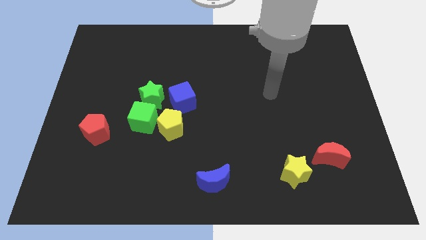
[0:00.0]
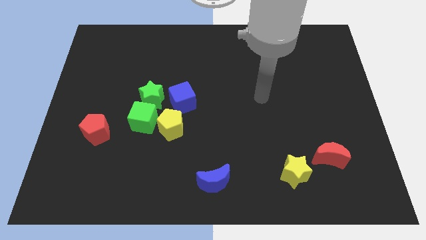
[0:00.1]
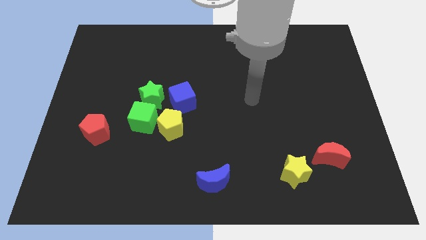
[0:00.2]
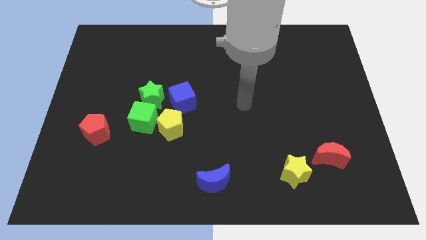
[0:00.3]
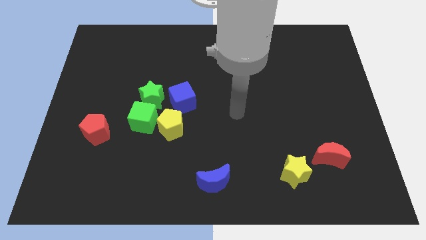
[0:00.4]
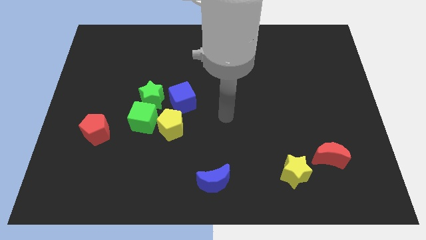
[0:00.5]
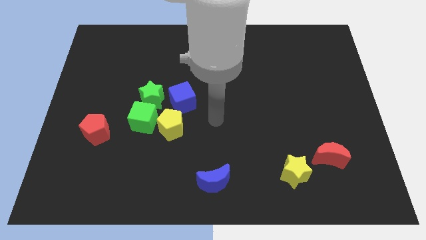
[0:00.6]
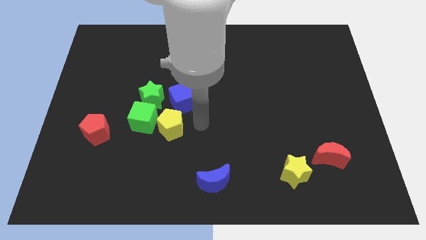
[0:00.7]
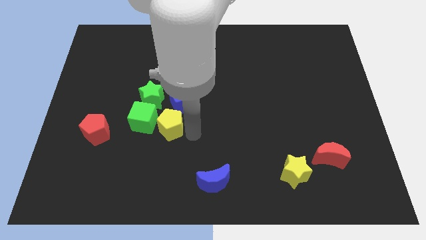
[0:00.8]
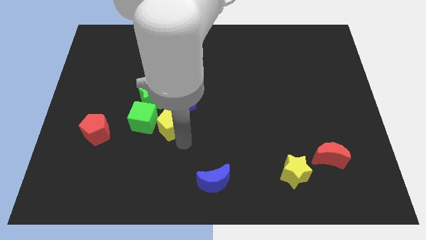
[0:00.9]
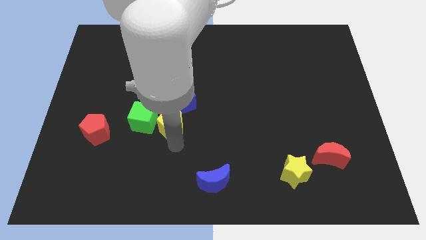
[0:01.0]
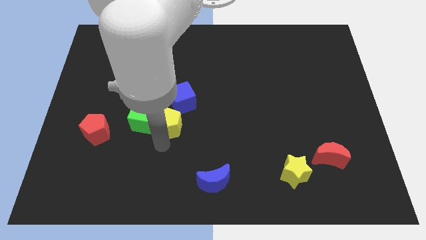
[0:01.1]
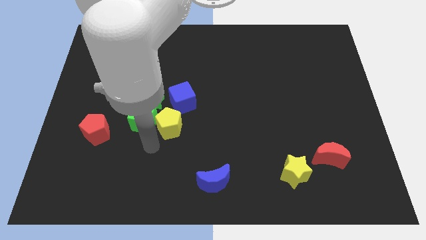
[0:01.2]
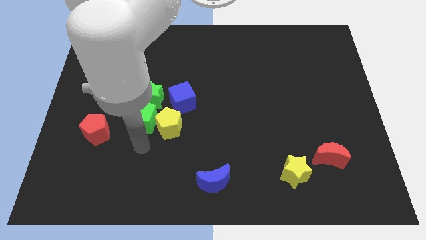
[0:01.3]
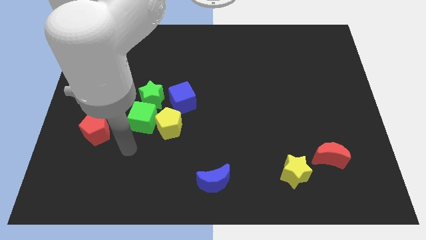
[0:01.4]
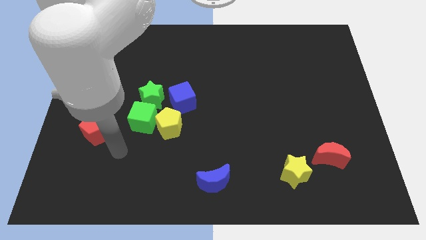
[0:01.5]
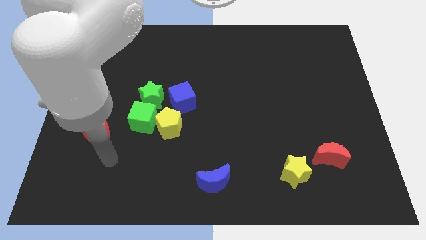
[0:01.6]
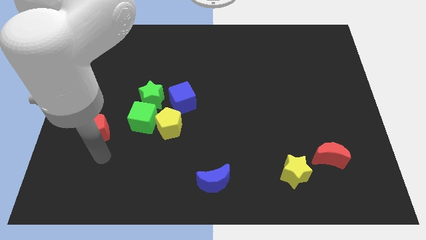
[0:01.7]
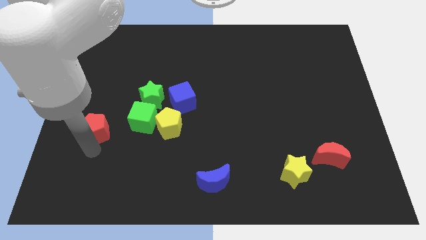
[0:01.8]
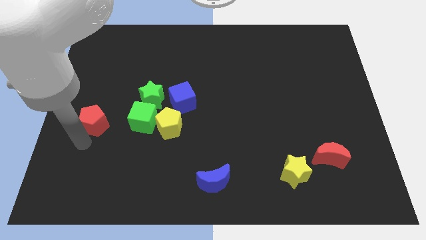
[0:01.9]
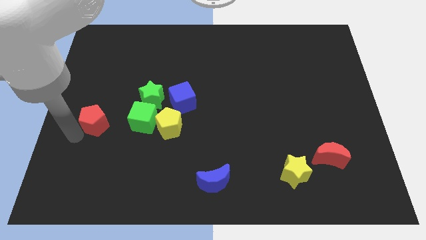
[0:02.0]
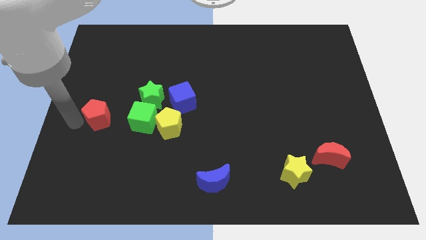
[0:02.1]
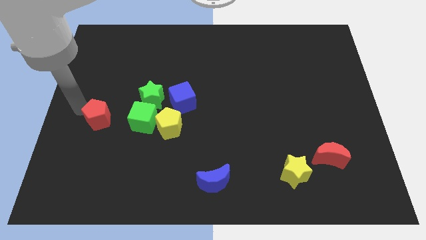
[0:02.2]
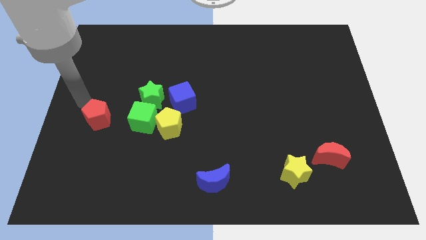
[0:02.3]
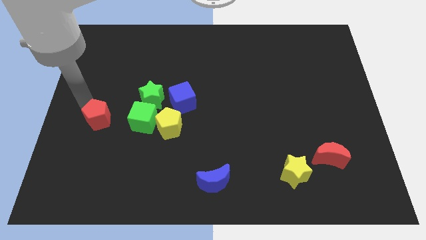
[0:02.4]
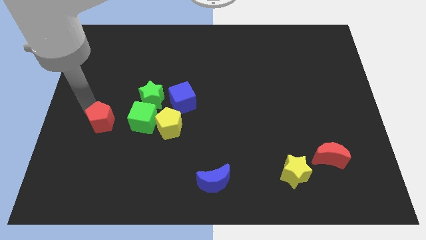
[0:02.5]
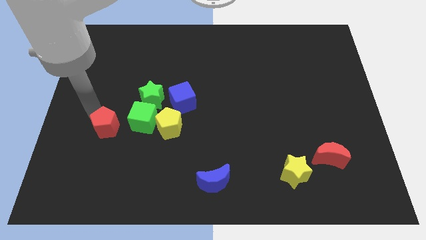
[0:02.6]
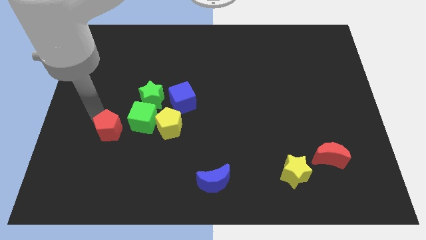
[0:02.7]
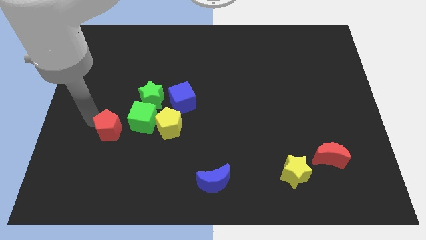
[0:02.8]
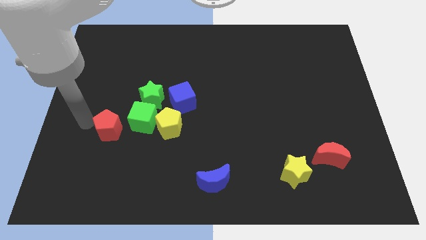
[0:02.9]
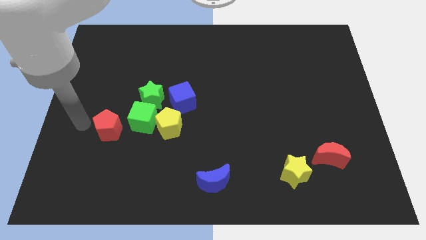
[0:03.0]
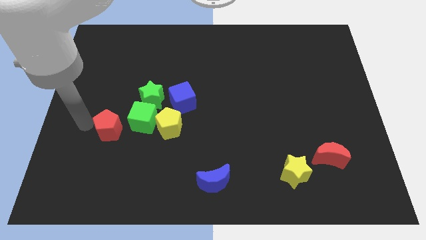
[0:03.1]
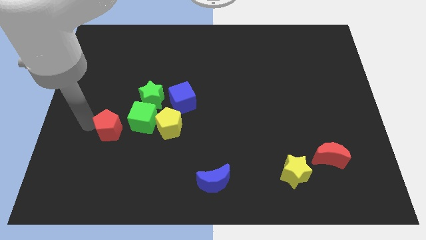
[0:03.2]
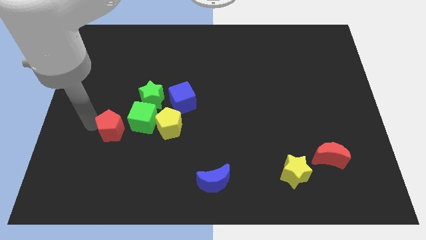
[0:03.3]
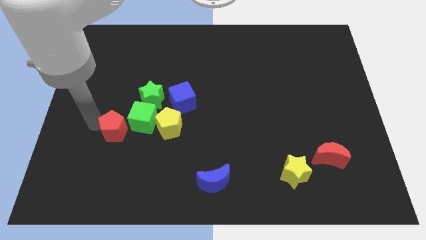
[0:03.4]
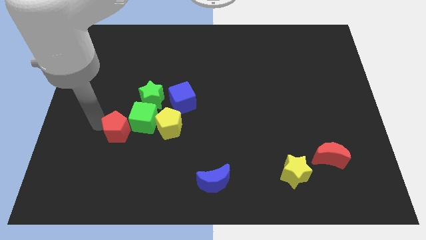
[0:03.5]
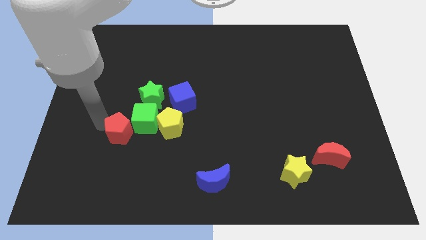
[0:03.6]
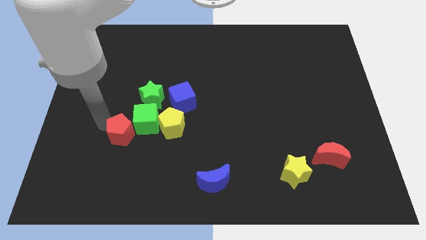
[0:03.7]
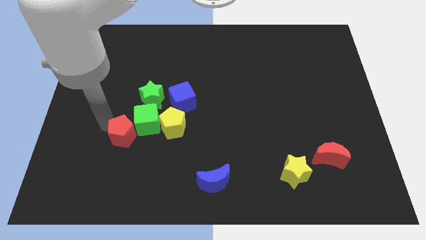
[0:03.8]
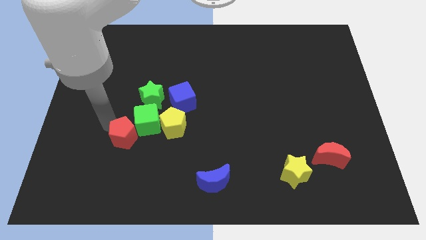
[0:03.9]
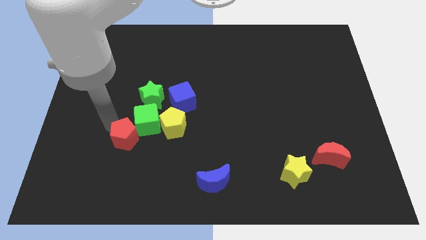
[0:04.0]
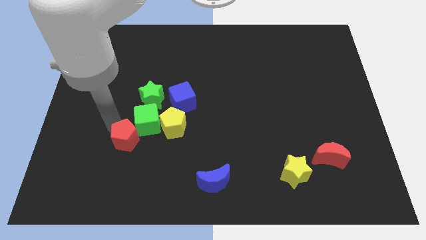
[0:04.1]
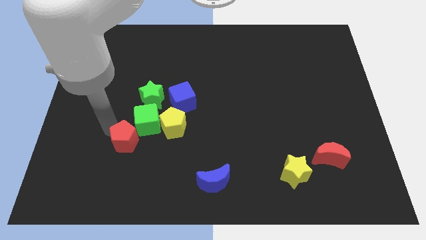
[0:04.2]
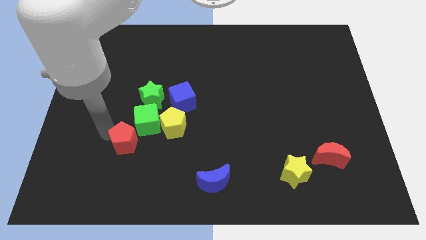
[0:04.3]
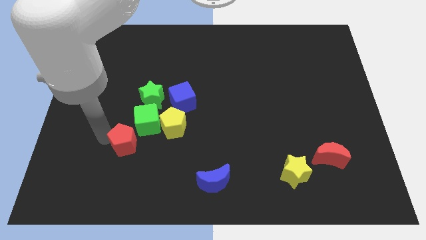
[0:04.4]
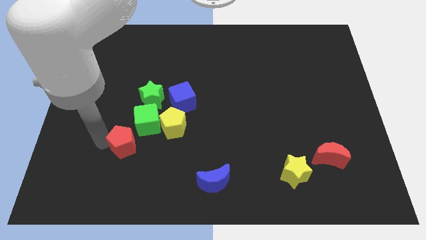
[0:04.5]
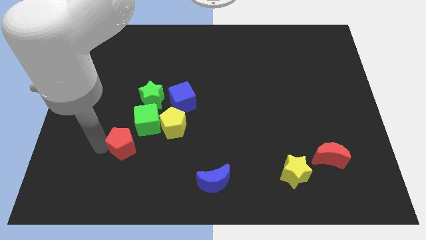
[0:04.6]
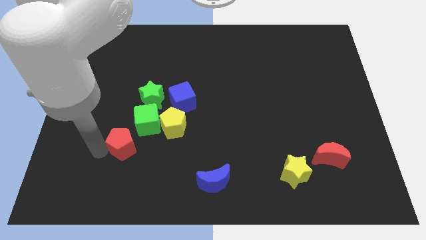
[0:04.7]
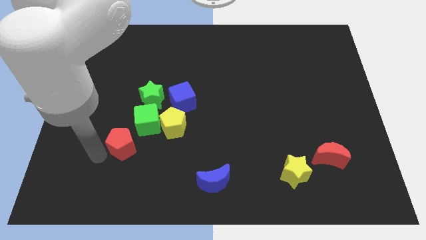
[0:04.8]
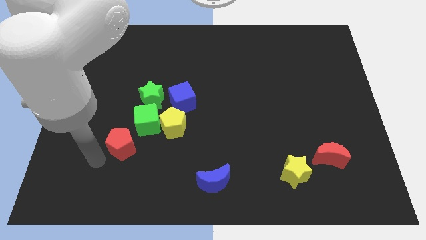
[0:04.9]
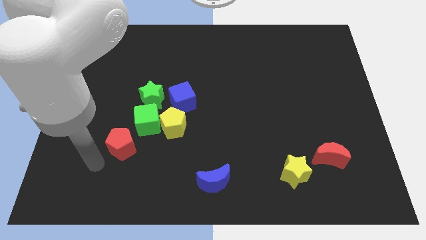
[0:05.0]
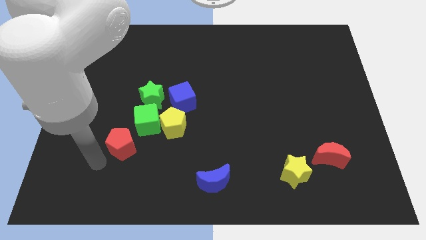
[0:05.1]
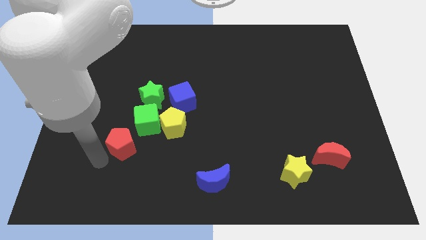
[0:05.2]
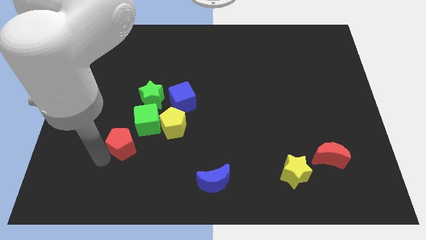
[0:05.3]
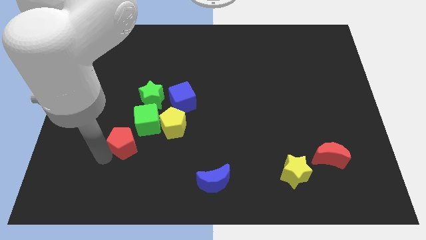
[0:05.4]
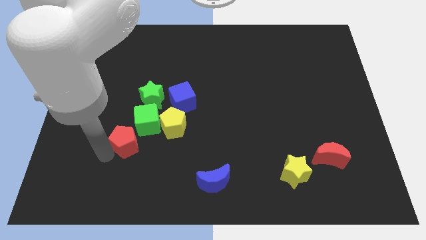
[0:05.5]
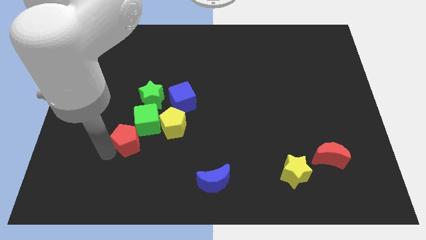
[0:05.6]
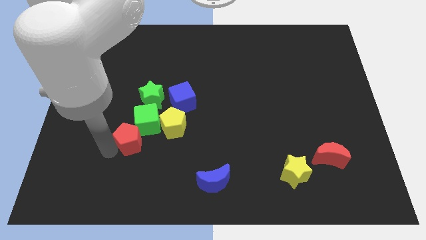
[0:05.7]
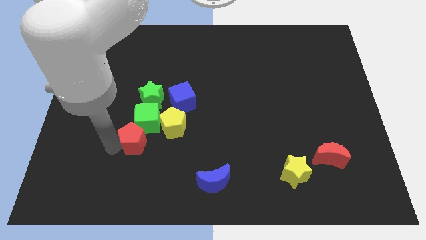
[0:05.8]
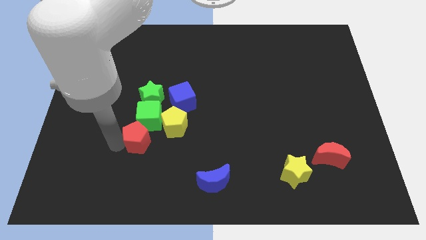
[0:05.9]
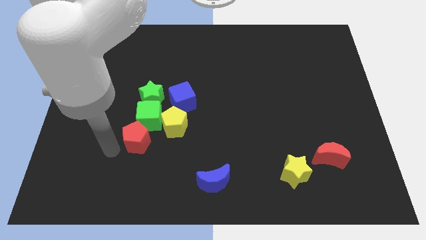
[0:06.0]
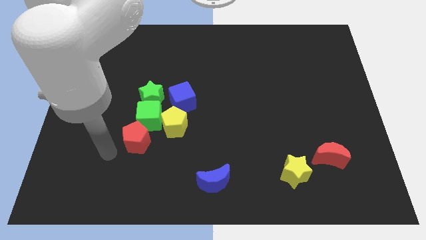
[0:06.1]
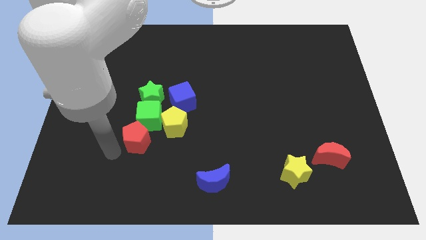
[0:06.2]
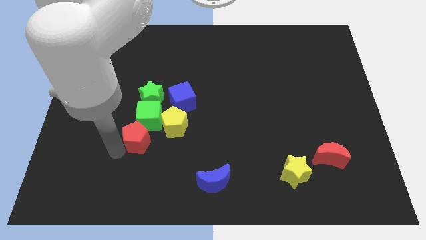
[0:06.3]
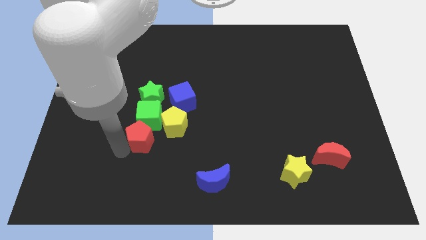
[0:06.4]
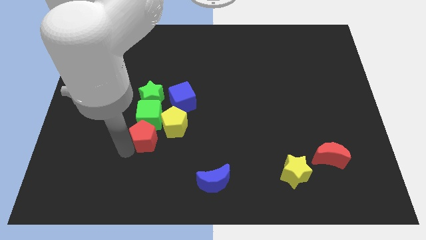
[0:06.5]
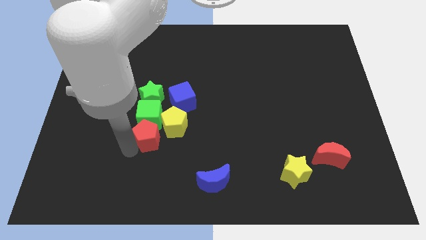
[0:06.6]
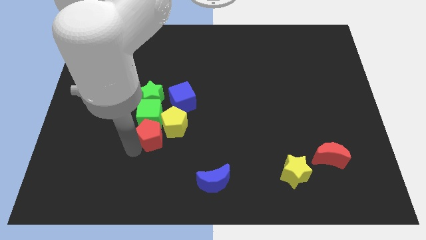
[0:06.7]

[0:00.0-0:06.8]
push the red pentagon next to the yellow pentagon

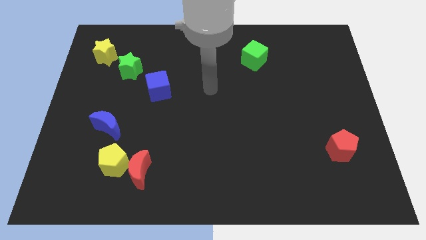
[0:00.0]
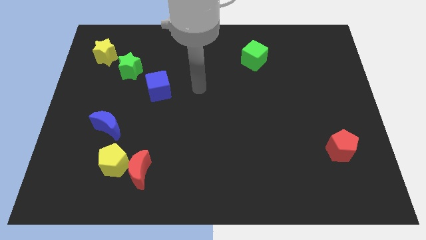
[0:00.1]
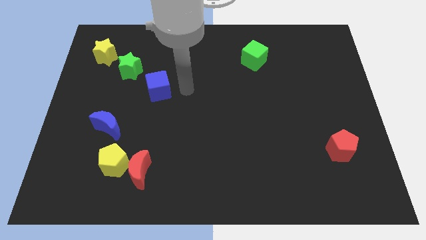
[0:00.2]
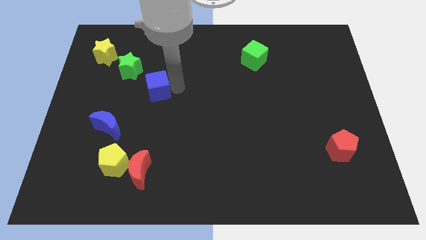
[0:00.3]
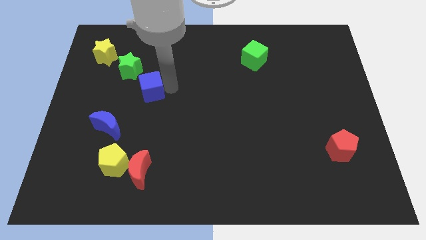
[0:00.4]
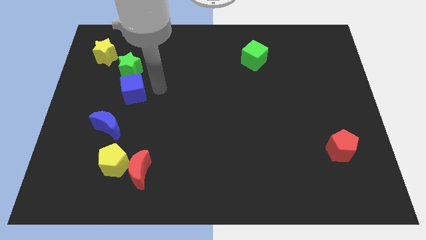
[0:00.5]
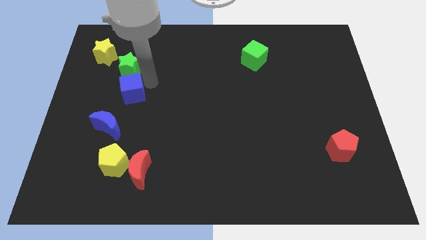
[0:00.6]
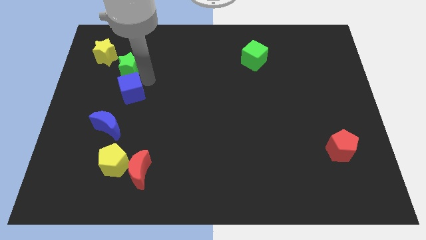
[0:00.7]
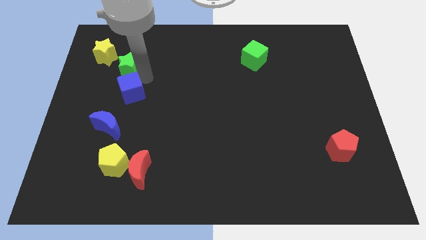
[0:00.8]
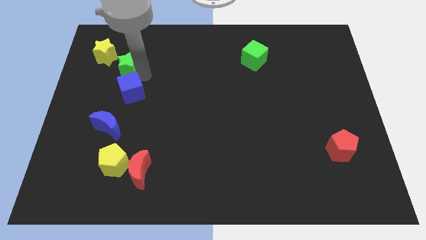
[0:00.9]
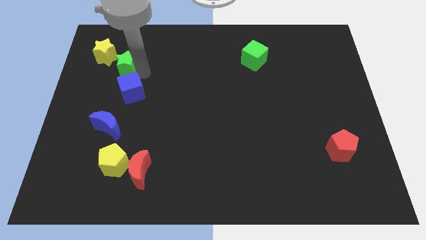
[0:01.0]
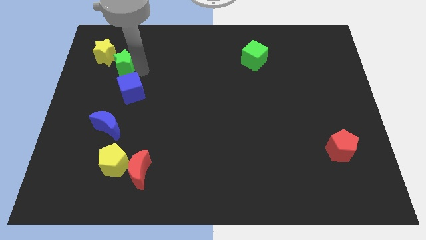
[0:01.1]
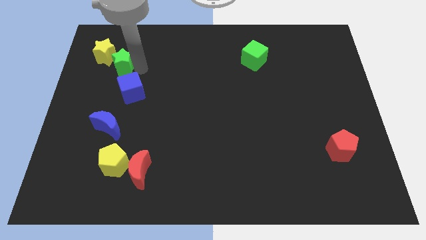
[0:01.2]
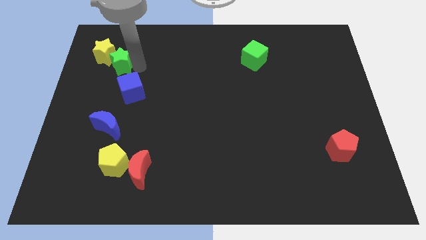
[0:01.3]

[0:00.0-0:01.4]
slide the green star next to the yellow star
